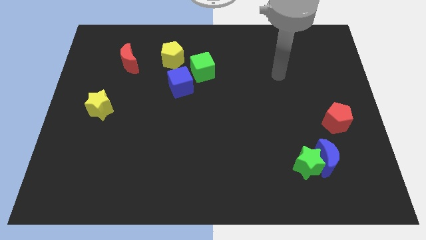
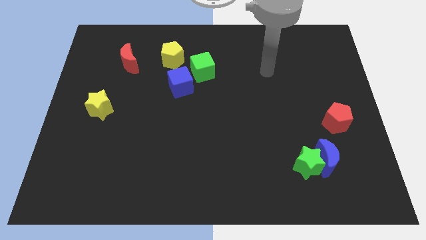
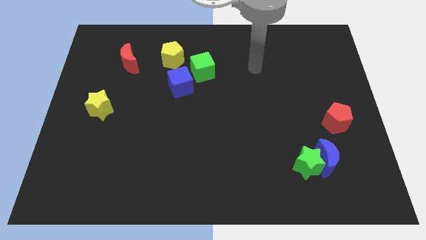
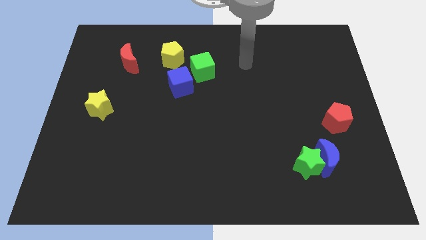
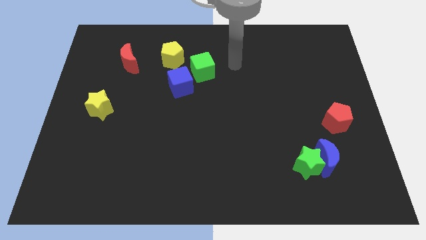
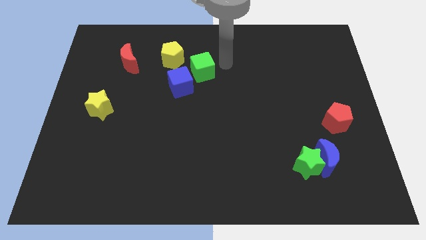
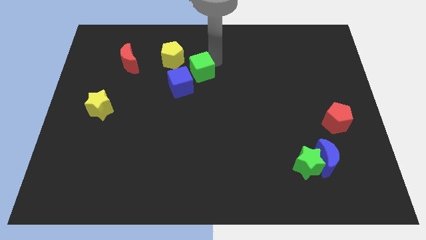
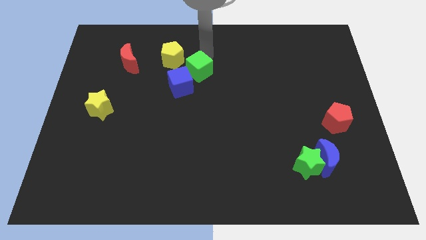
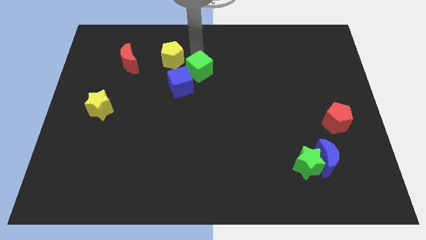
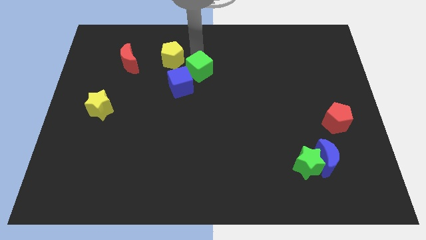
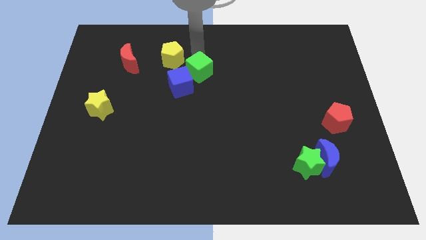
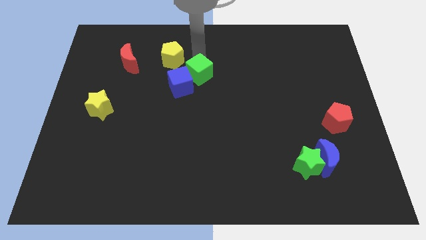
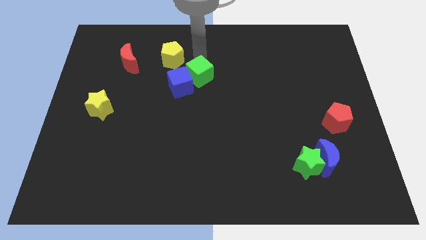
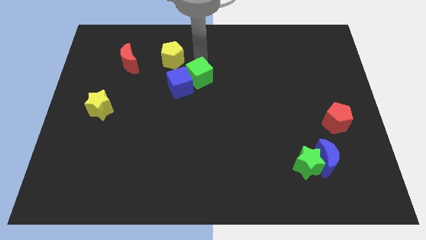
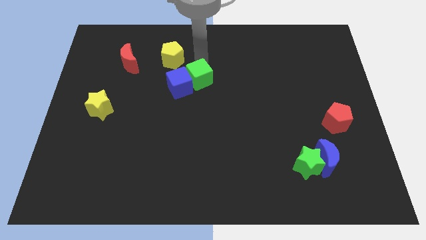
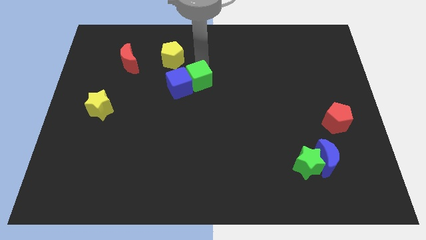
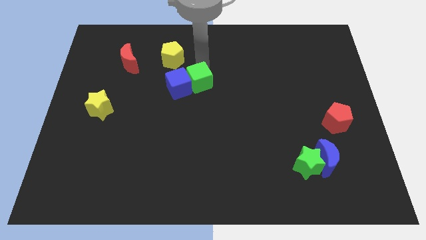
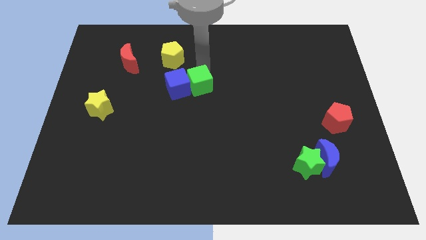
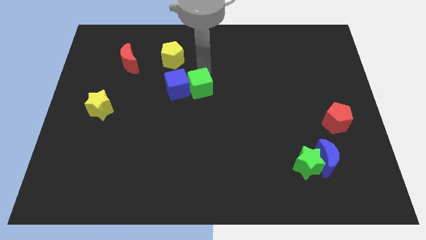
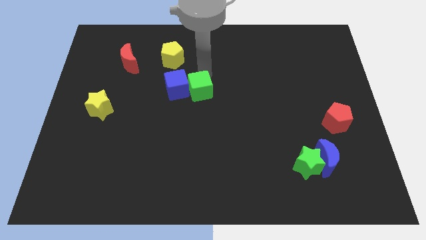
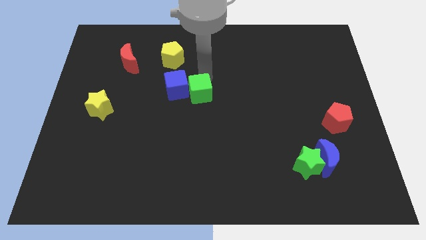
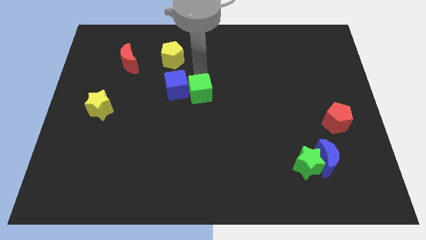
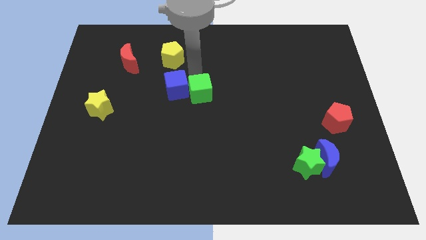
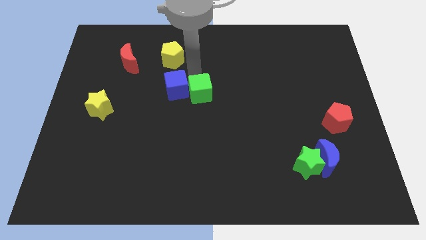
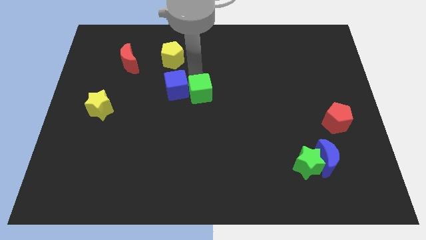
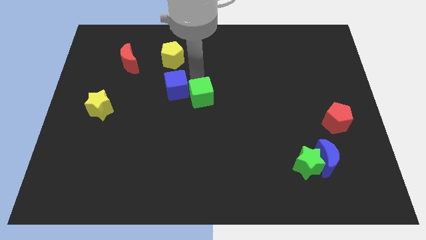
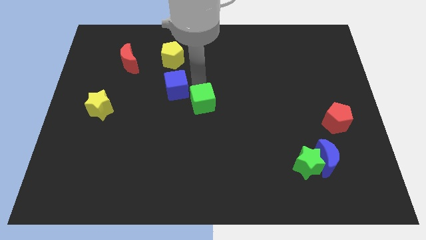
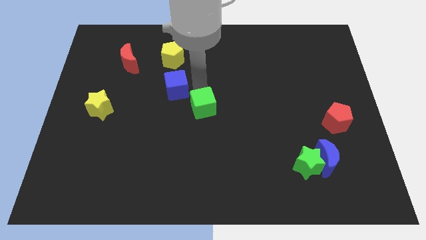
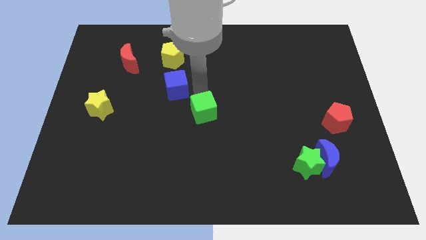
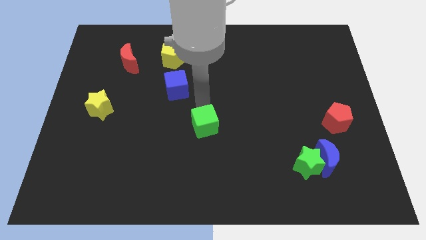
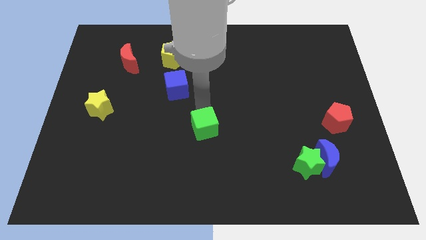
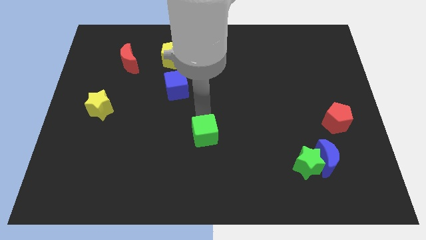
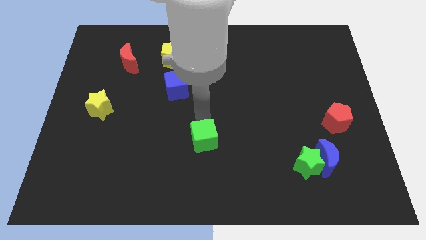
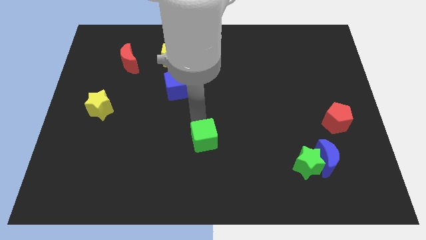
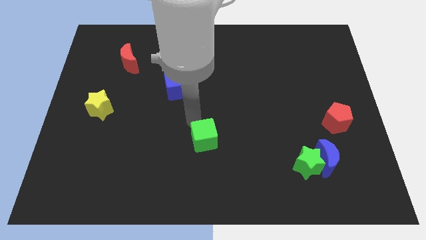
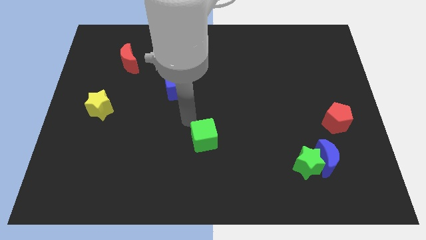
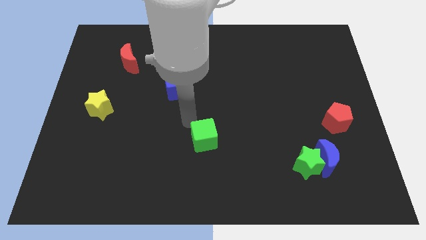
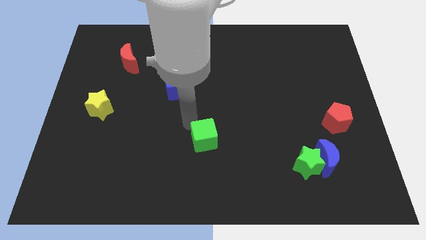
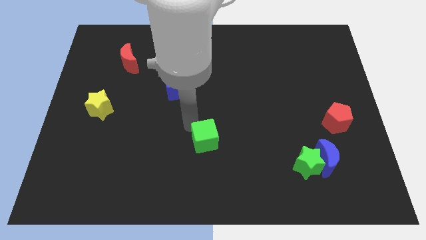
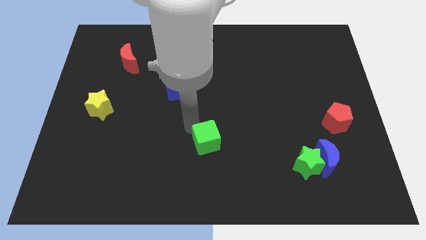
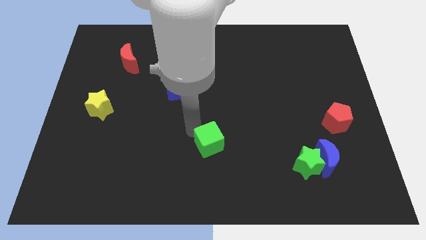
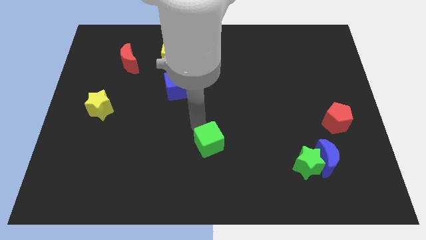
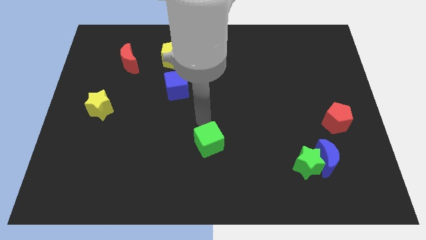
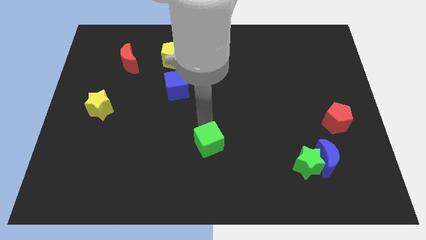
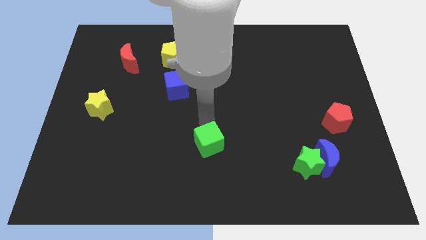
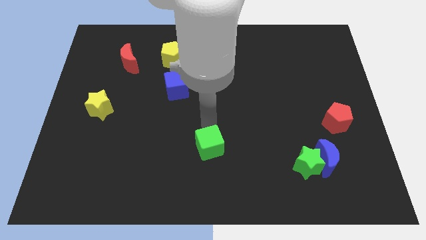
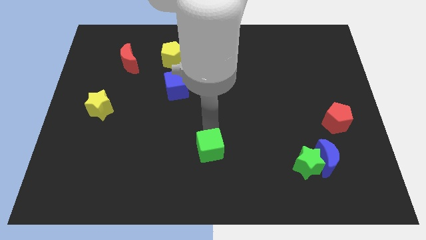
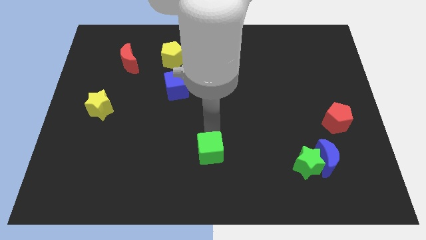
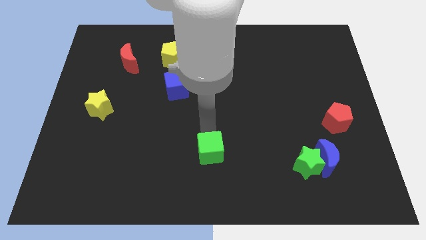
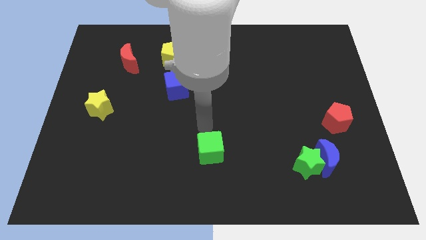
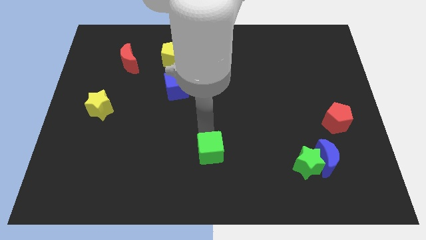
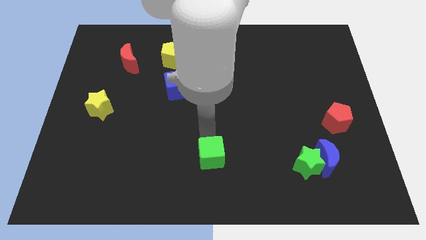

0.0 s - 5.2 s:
slide the green cube to the bottom

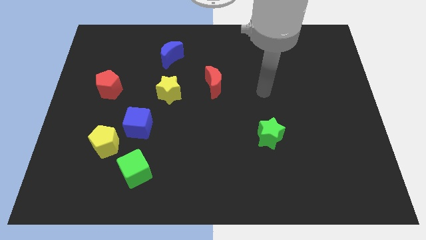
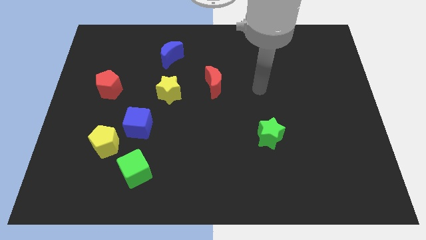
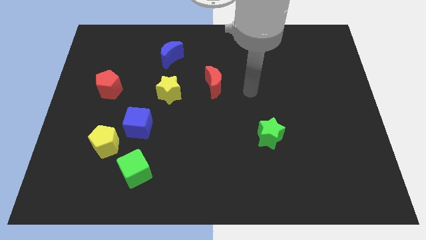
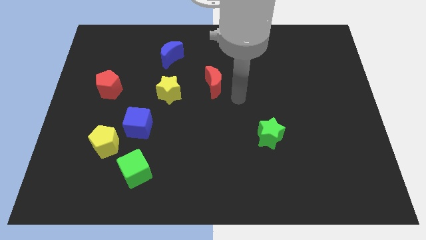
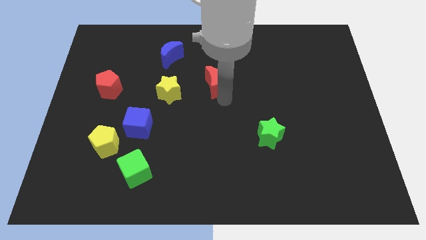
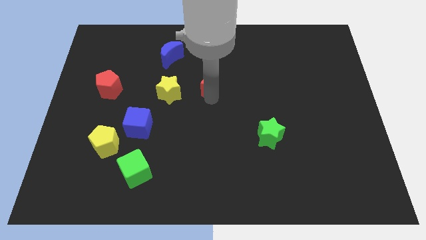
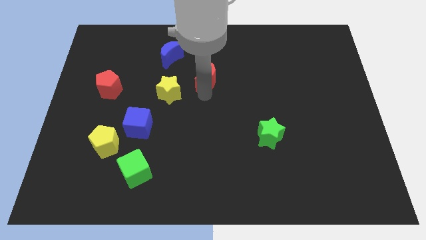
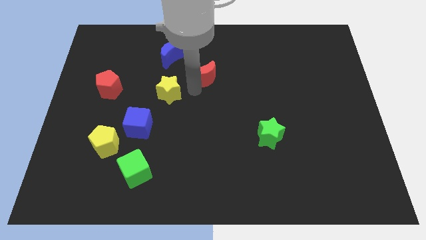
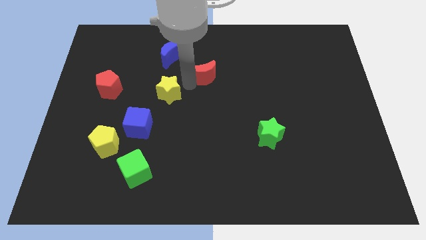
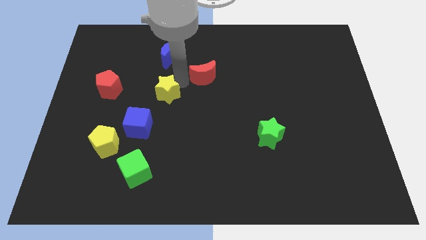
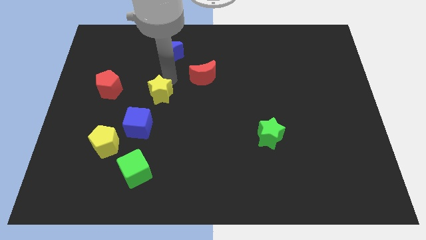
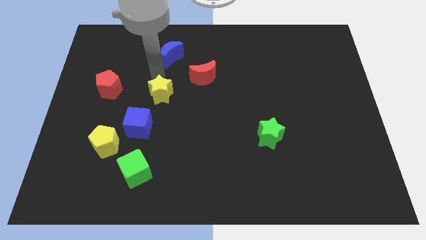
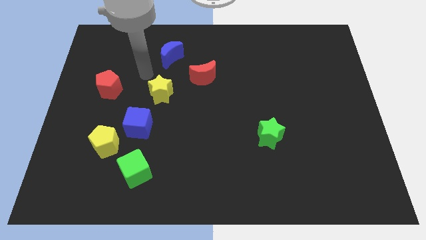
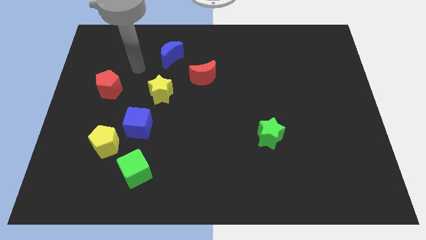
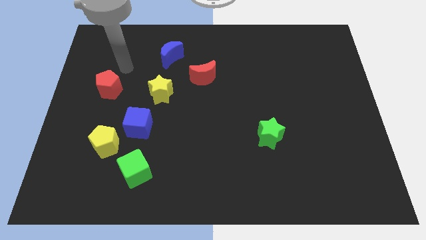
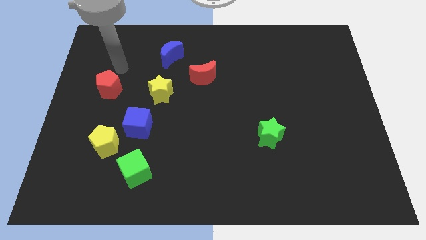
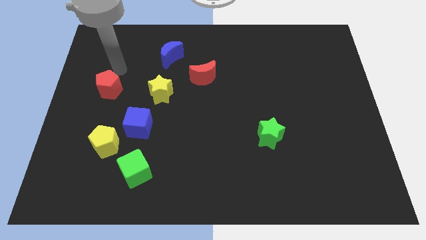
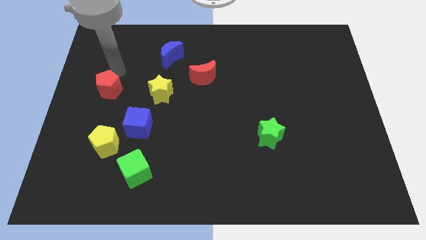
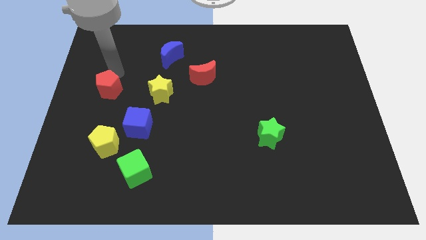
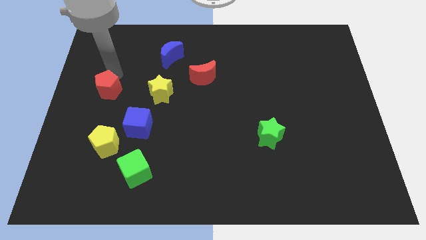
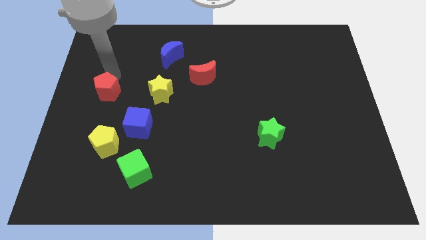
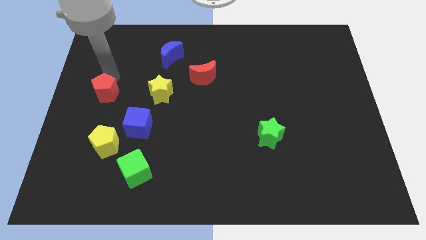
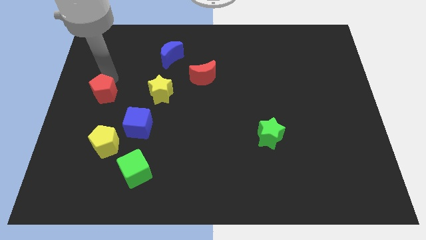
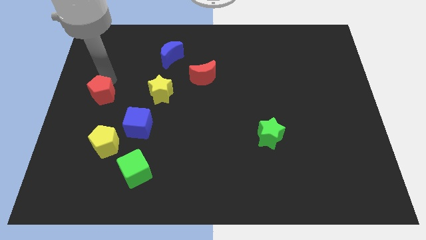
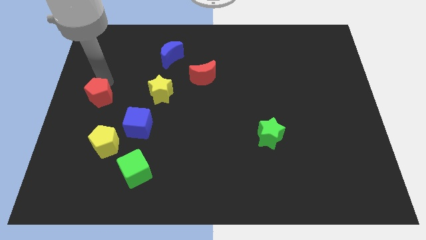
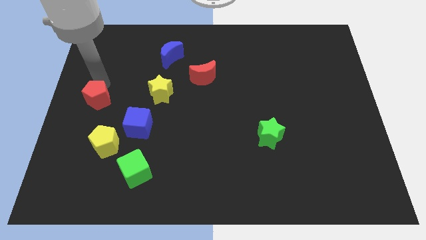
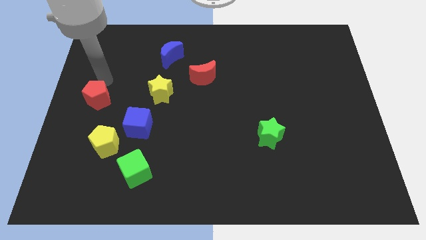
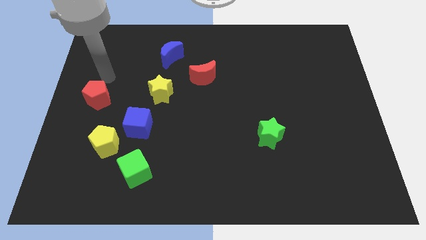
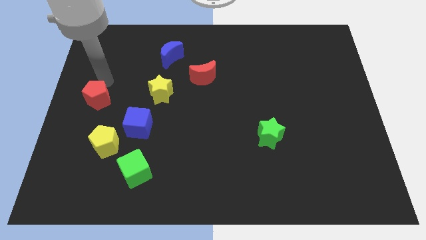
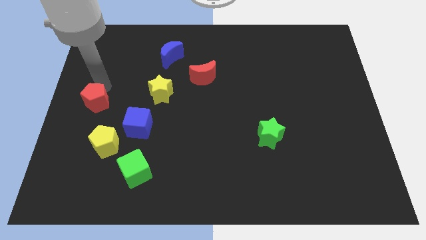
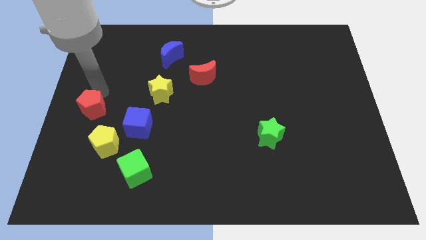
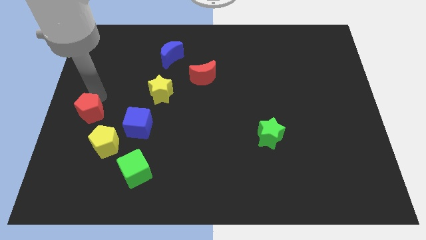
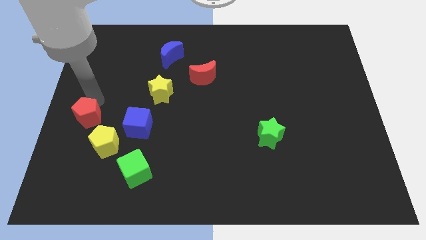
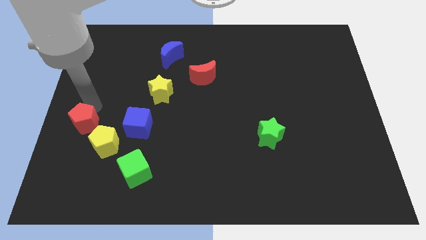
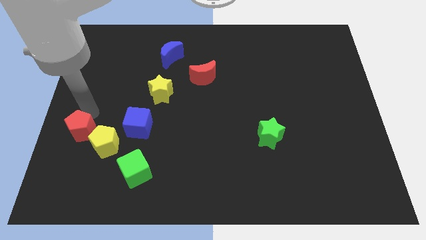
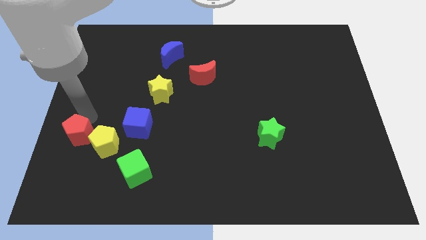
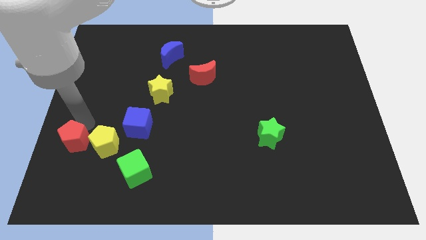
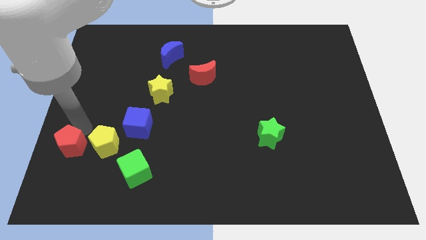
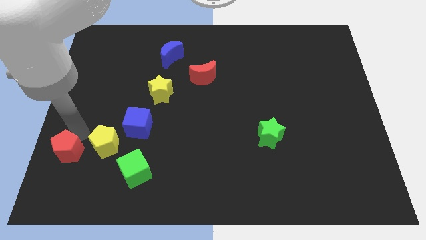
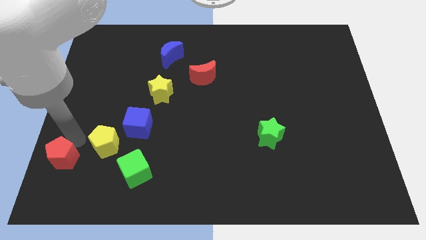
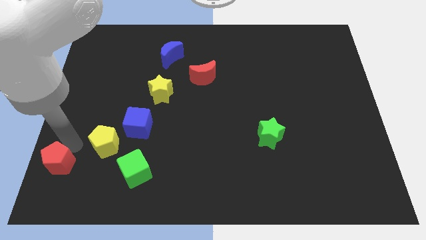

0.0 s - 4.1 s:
put the red pentagon to the bottom left corner
